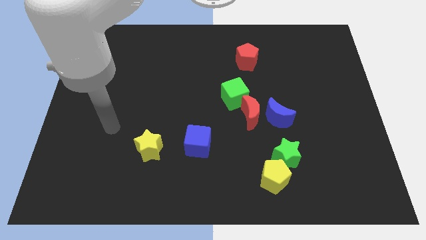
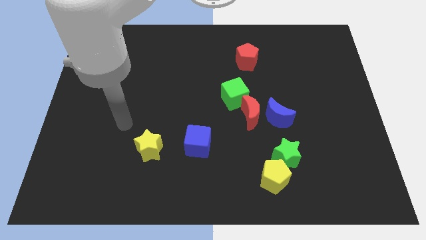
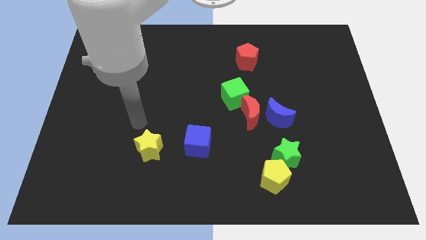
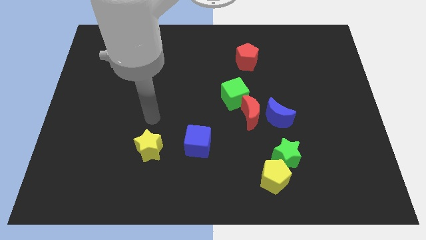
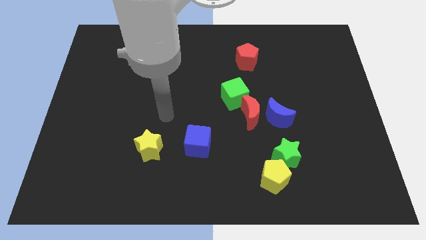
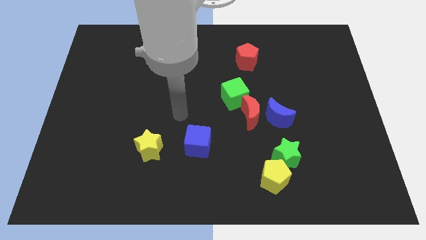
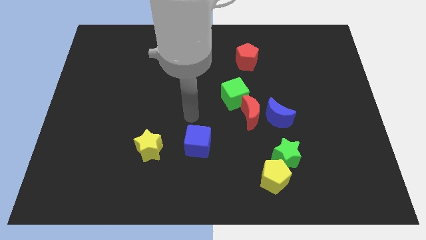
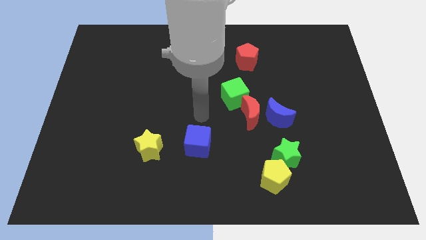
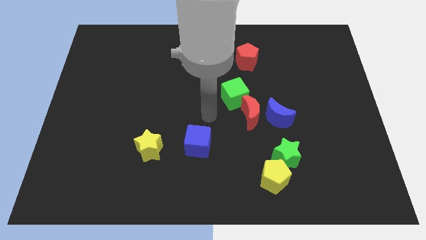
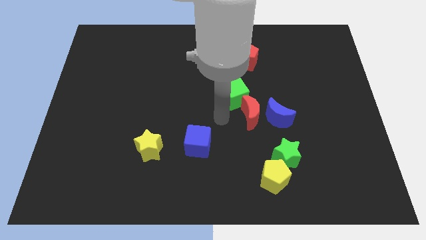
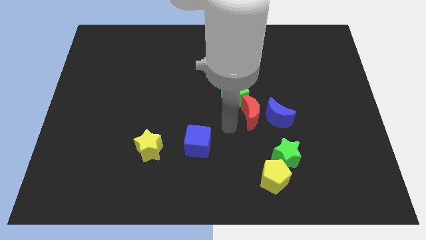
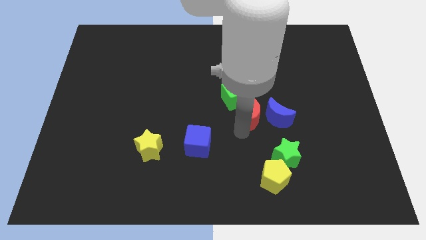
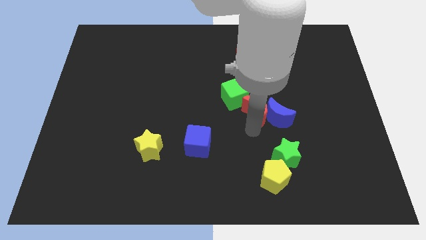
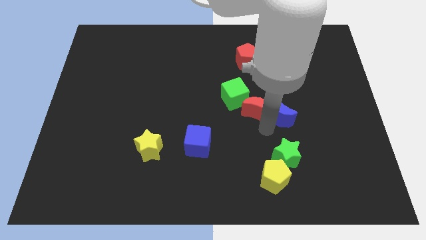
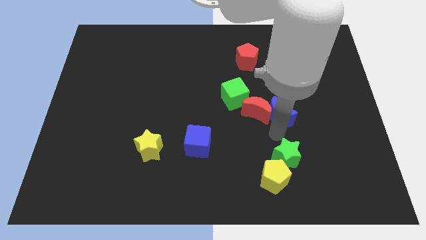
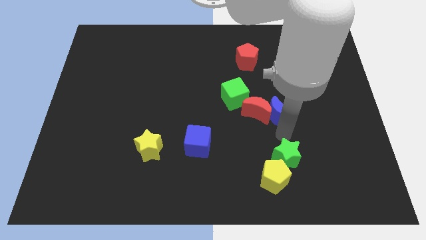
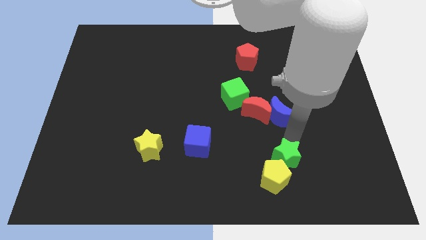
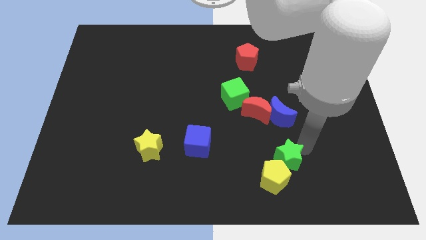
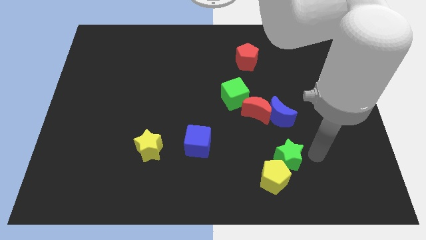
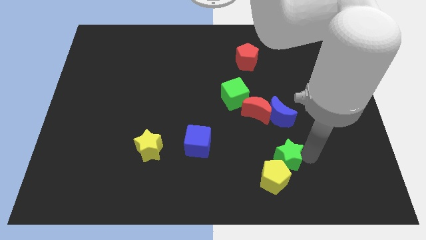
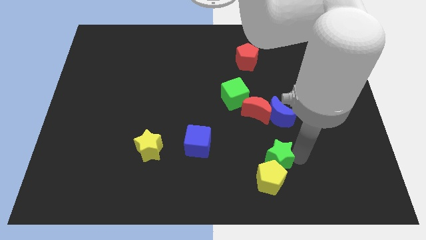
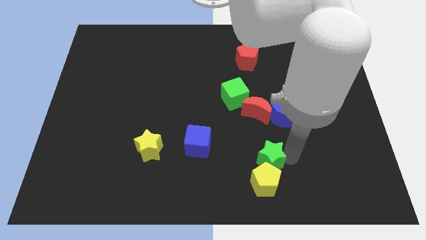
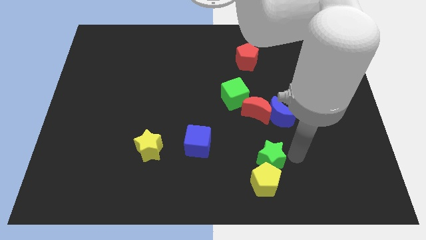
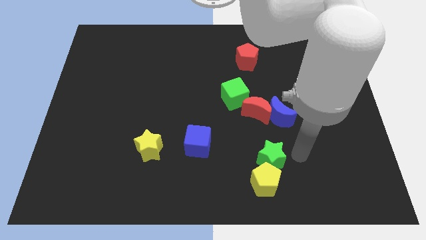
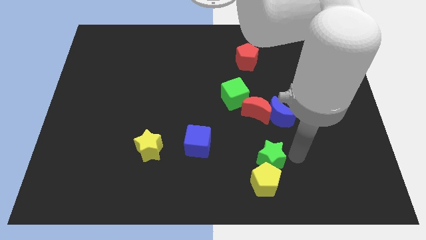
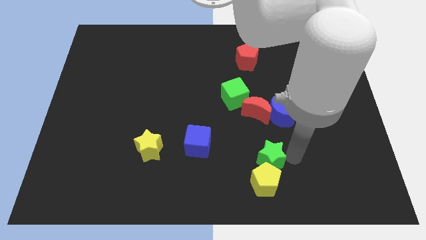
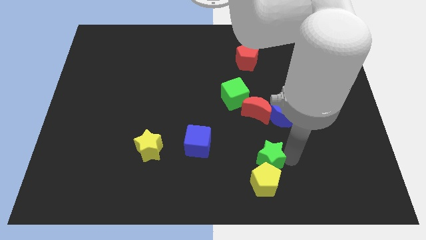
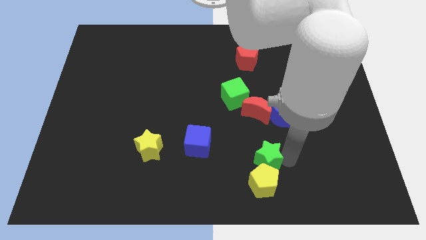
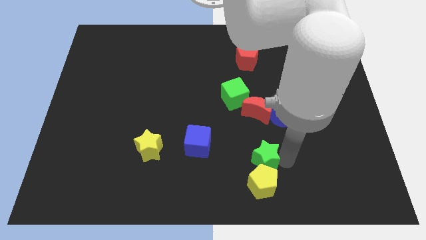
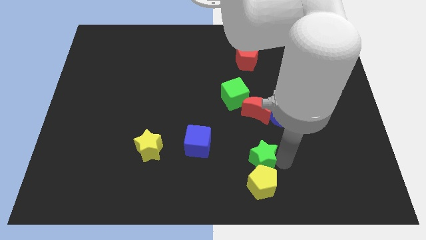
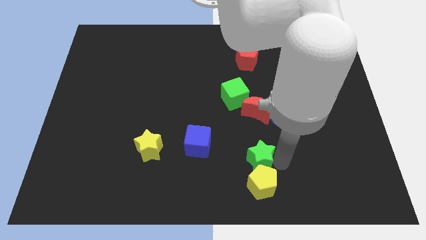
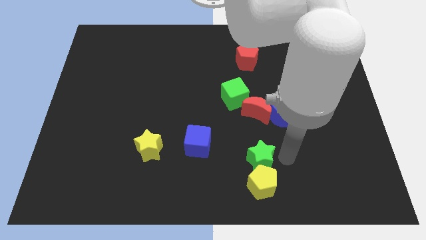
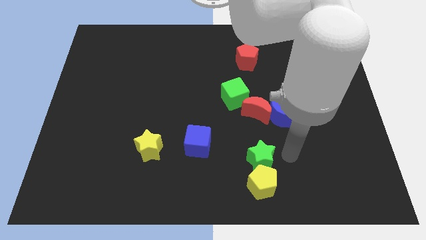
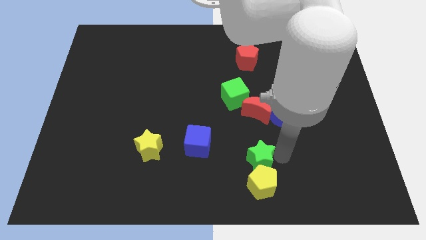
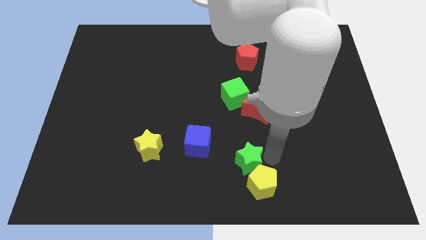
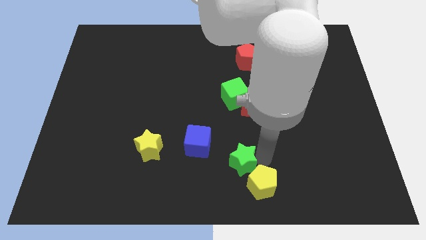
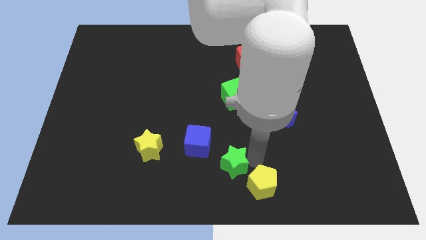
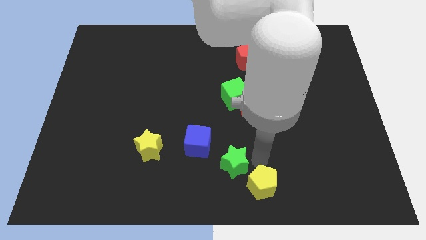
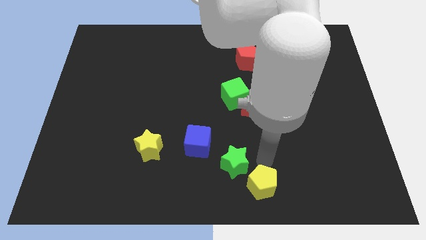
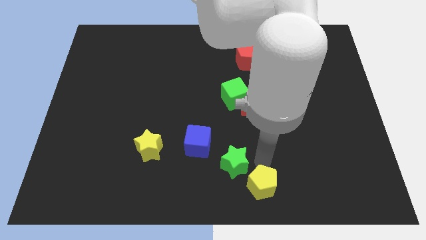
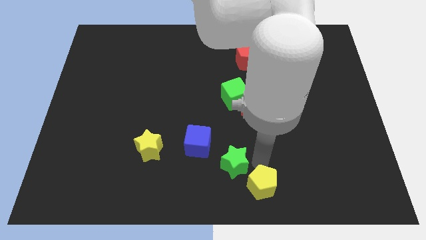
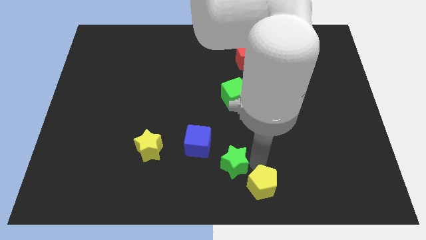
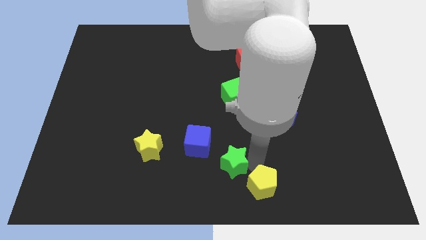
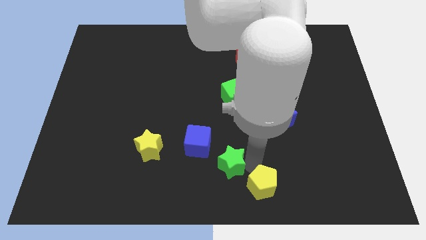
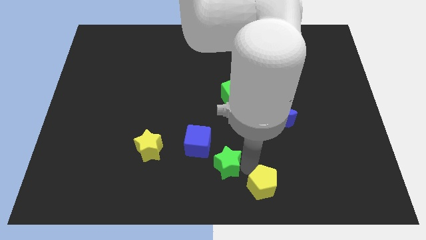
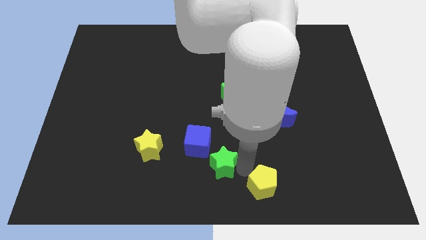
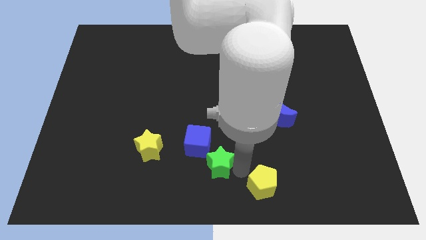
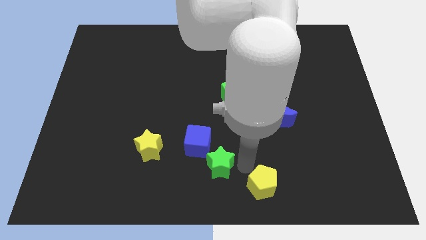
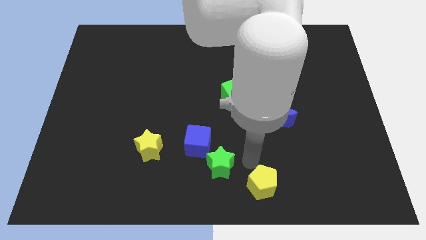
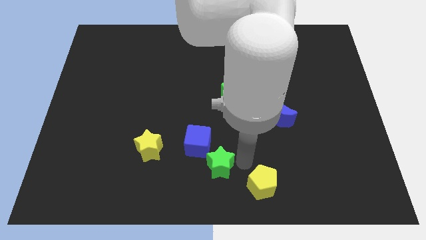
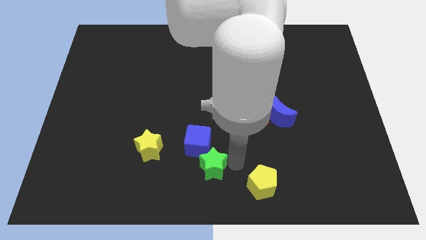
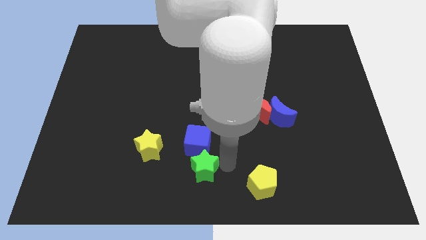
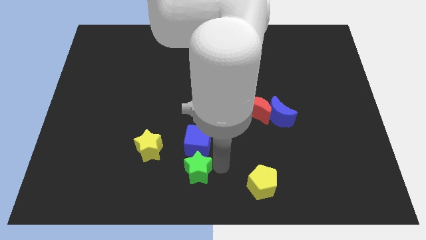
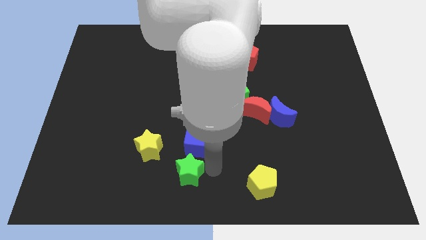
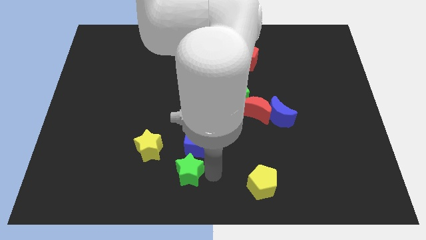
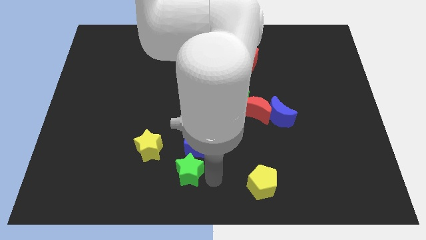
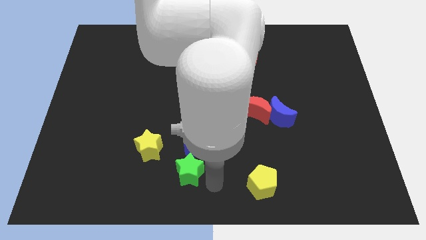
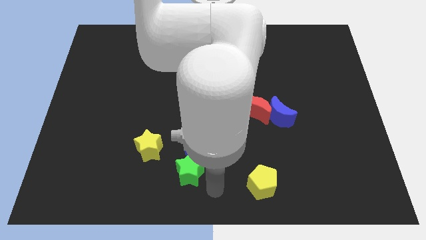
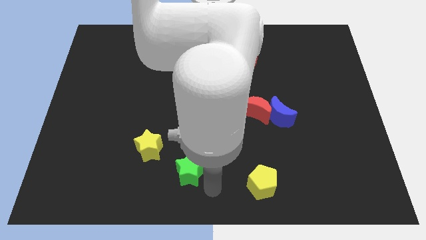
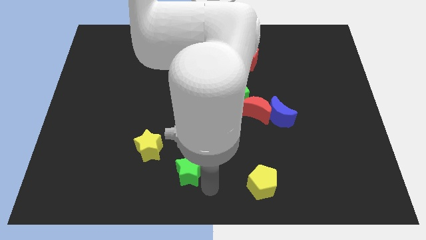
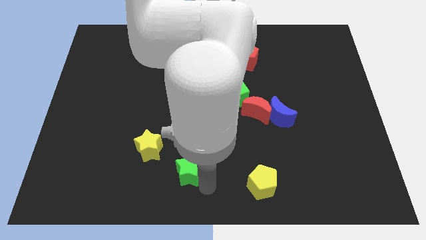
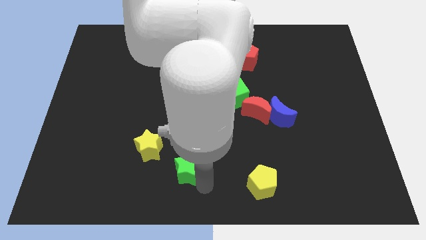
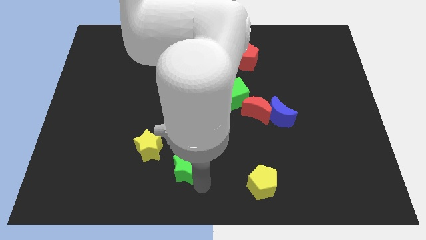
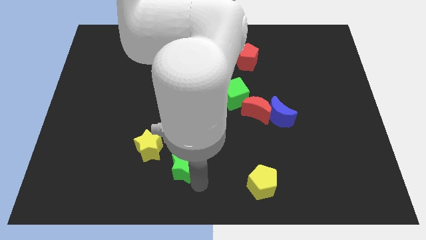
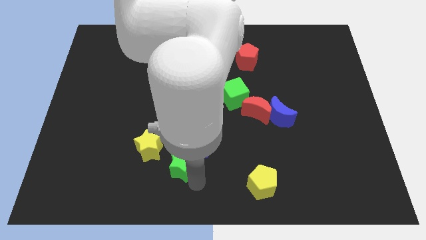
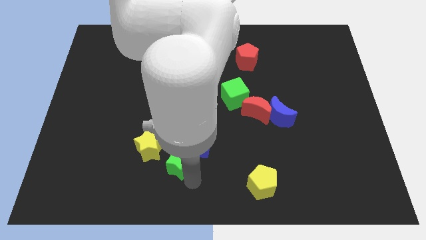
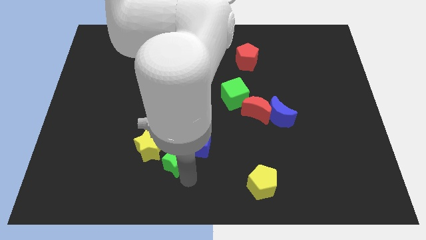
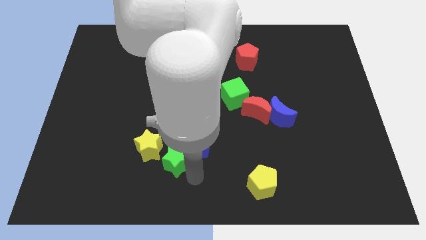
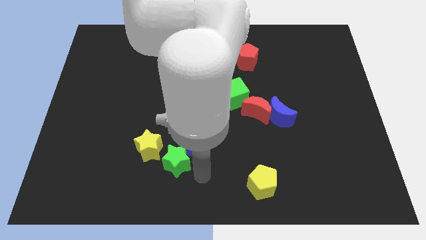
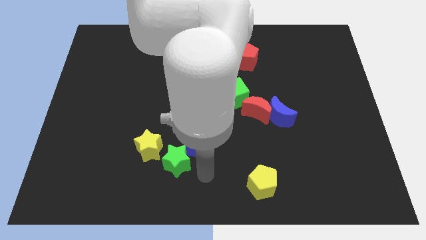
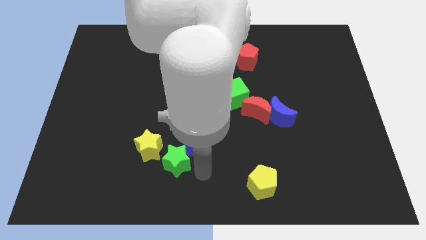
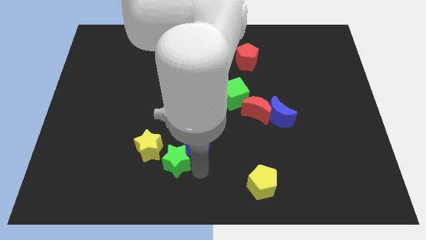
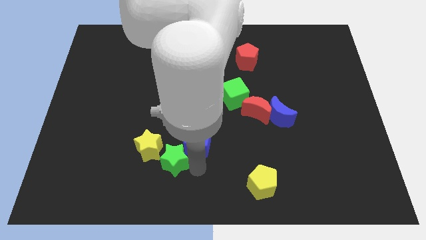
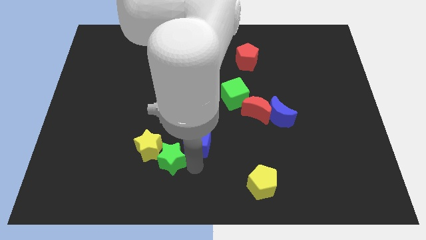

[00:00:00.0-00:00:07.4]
slide the green star to the yellow star
